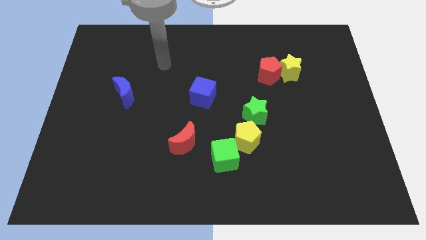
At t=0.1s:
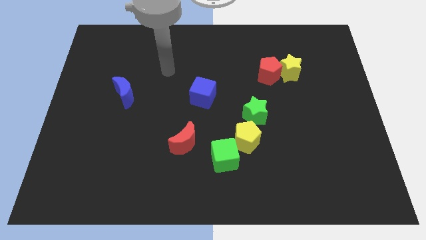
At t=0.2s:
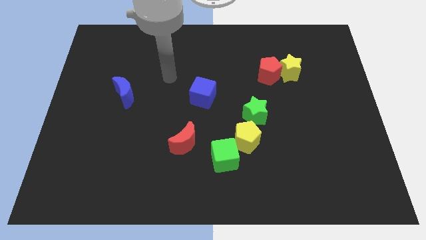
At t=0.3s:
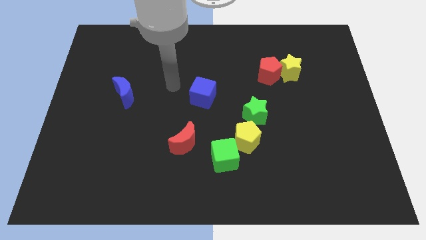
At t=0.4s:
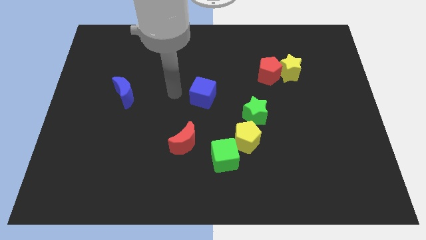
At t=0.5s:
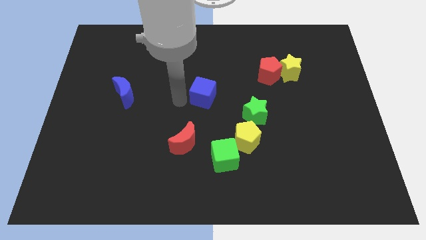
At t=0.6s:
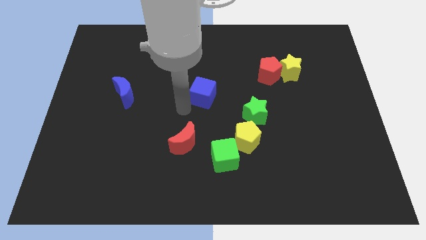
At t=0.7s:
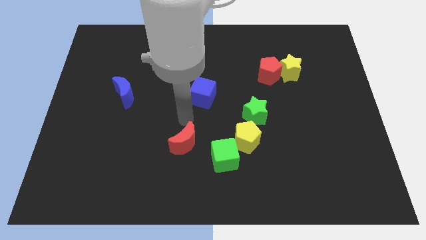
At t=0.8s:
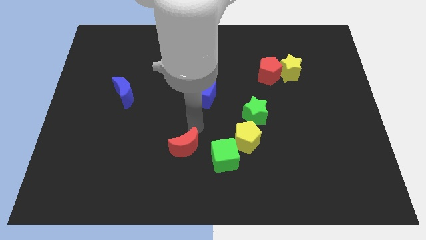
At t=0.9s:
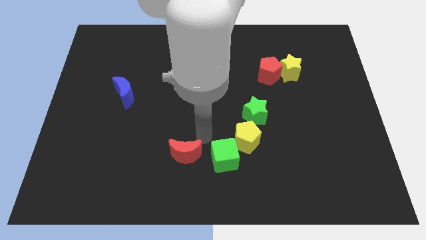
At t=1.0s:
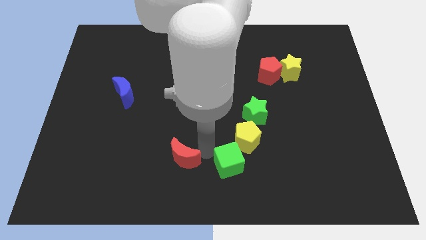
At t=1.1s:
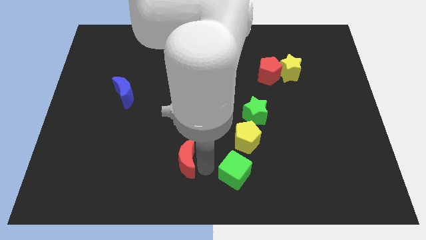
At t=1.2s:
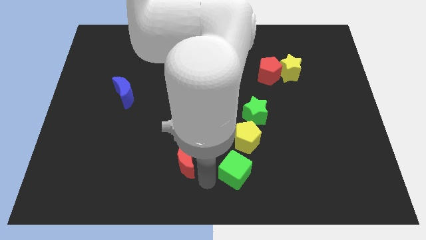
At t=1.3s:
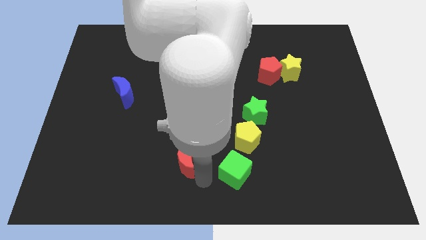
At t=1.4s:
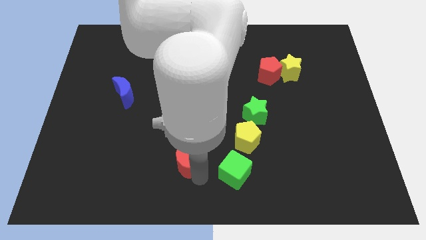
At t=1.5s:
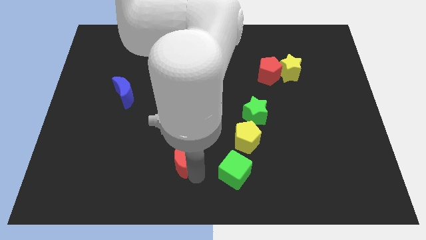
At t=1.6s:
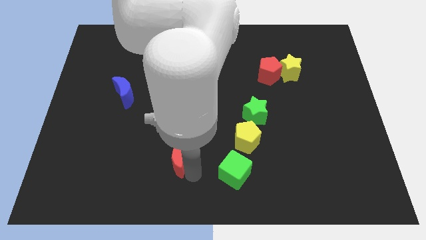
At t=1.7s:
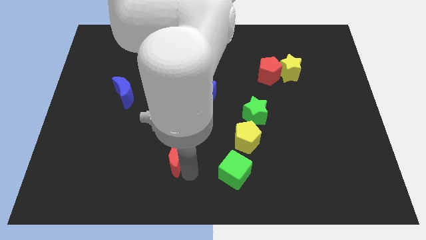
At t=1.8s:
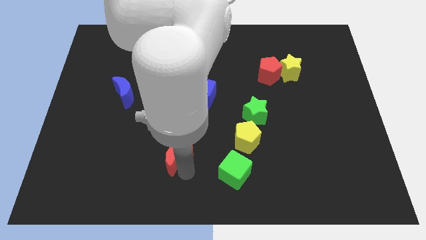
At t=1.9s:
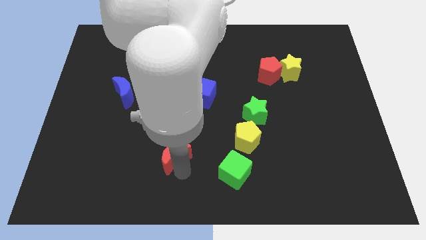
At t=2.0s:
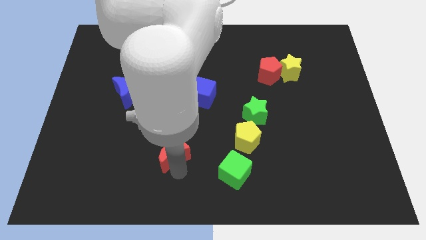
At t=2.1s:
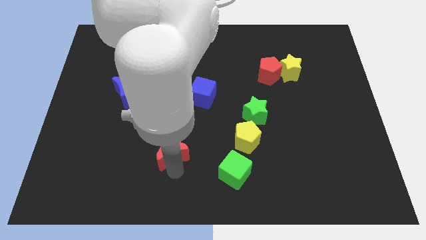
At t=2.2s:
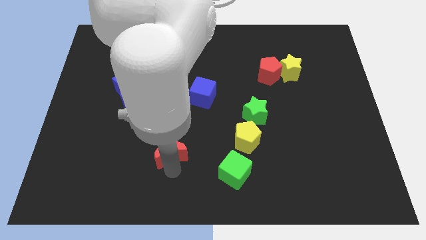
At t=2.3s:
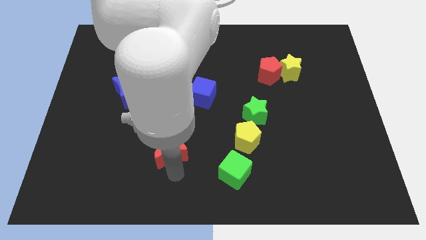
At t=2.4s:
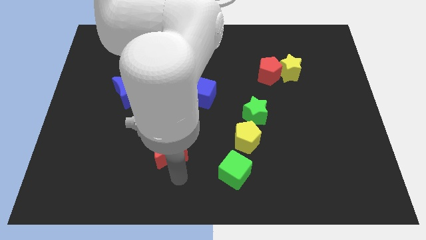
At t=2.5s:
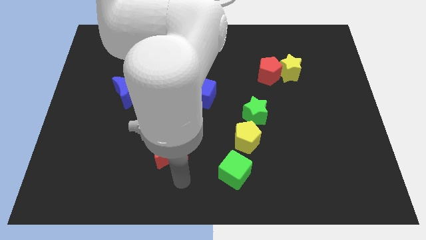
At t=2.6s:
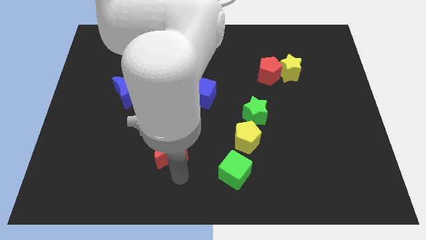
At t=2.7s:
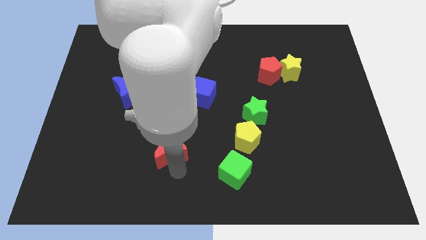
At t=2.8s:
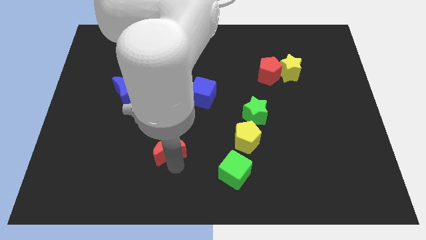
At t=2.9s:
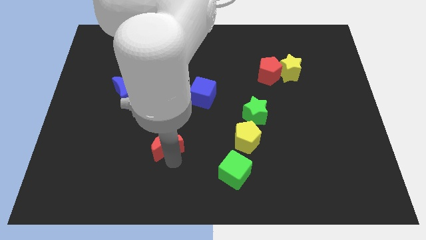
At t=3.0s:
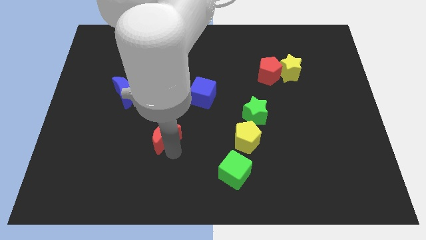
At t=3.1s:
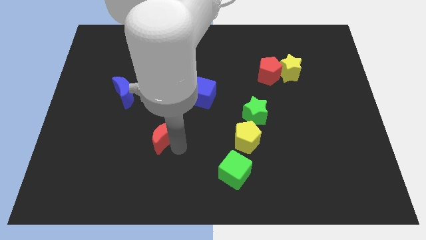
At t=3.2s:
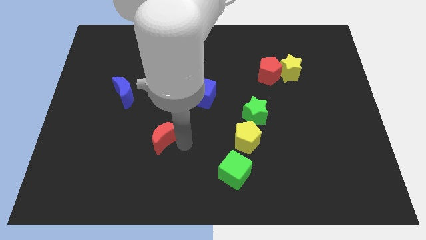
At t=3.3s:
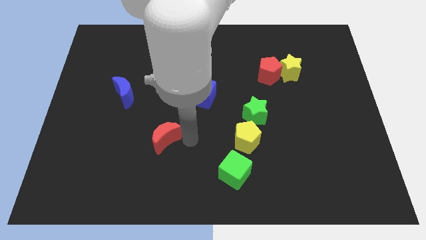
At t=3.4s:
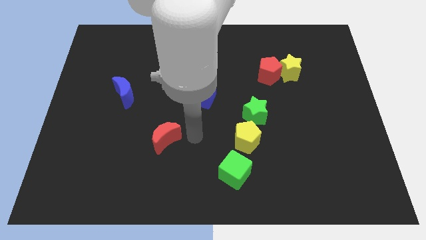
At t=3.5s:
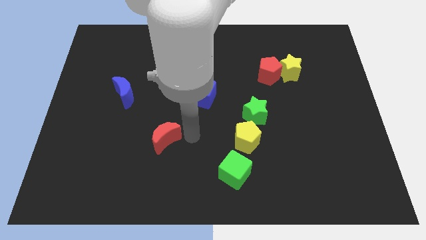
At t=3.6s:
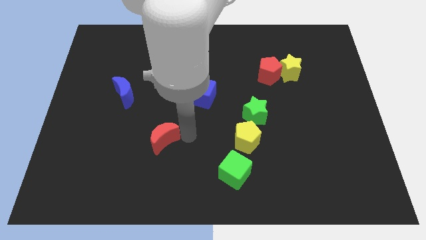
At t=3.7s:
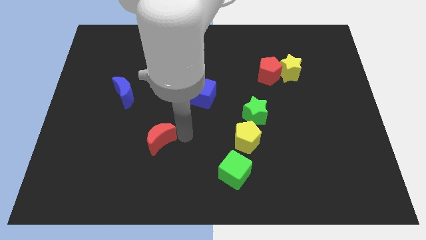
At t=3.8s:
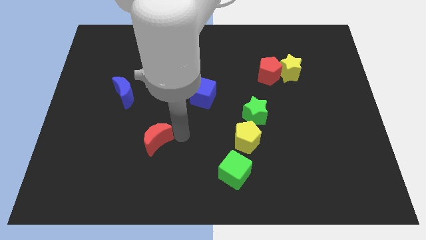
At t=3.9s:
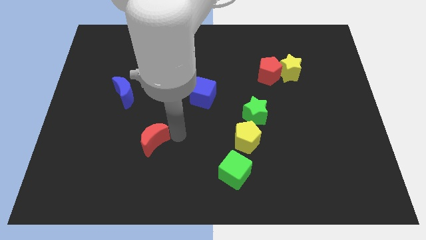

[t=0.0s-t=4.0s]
move the red moon to the left a bit

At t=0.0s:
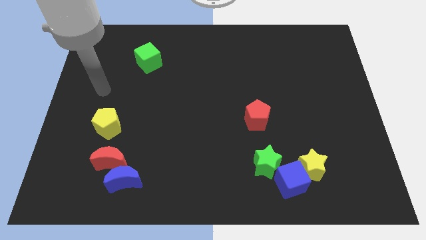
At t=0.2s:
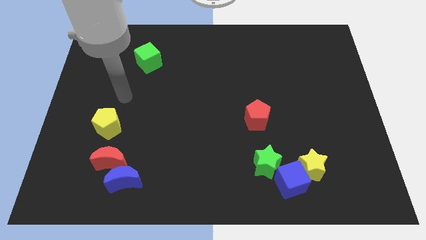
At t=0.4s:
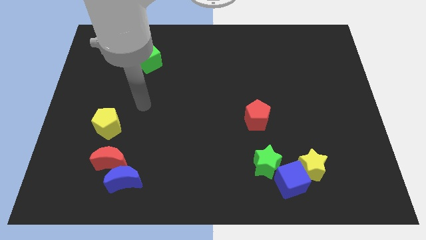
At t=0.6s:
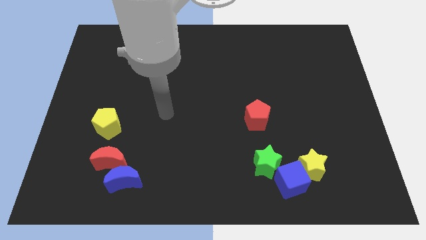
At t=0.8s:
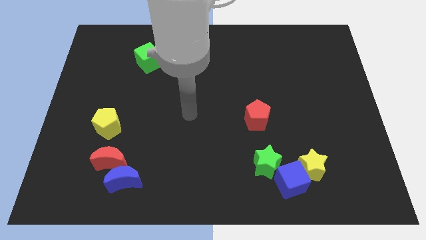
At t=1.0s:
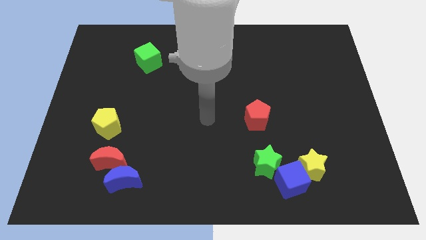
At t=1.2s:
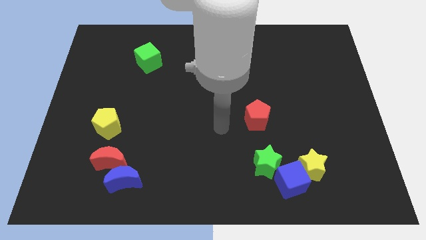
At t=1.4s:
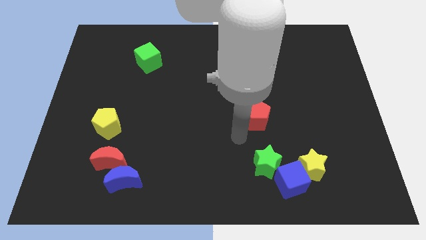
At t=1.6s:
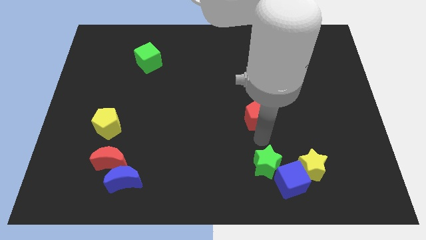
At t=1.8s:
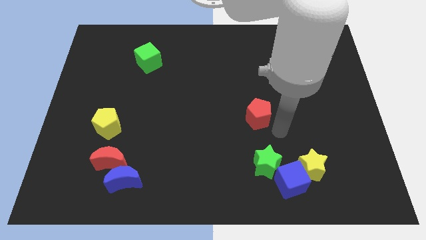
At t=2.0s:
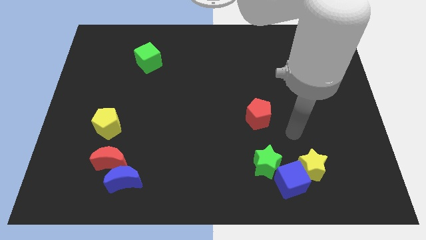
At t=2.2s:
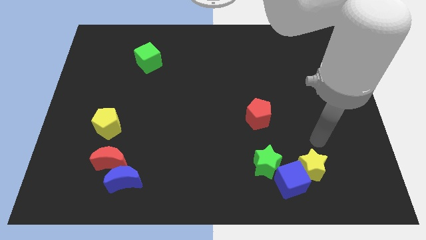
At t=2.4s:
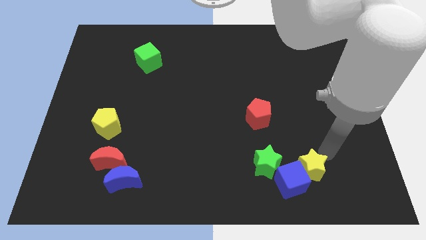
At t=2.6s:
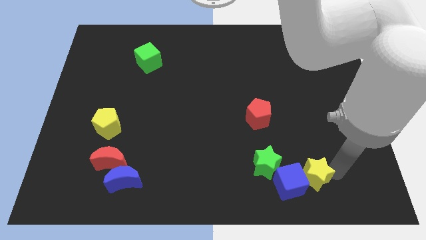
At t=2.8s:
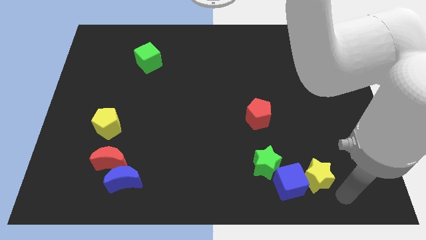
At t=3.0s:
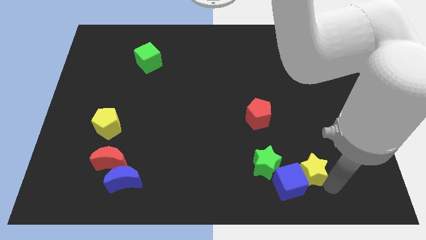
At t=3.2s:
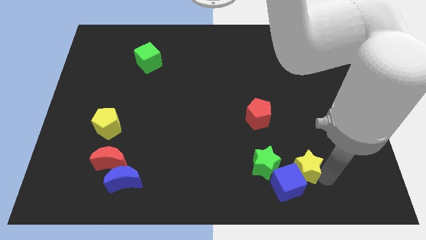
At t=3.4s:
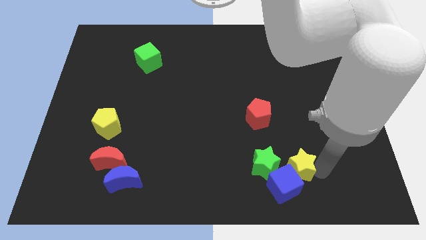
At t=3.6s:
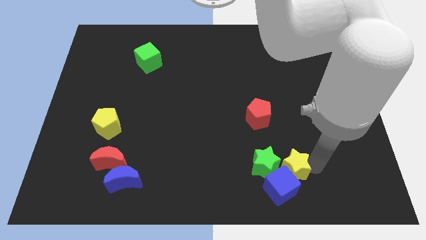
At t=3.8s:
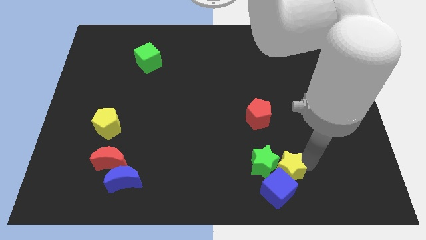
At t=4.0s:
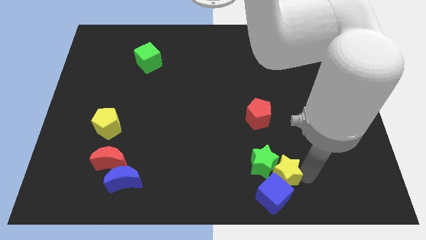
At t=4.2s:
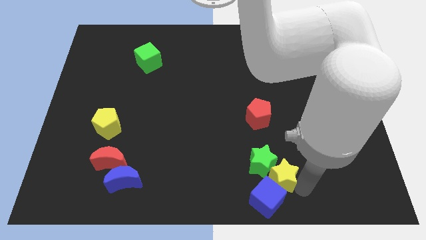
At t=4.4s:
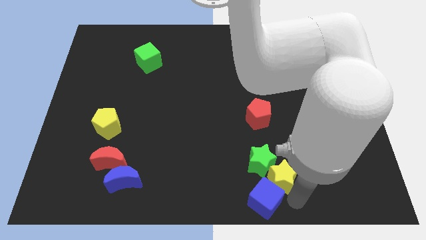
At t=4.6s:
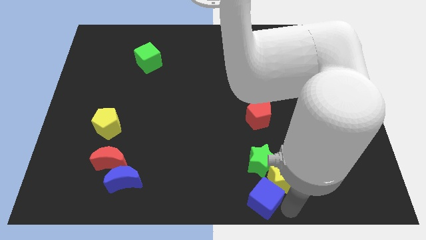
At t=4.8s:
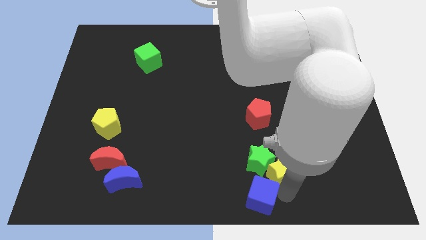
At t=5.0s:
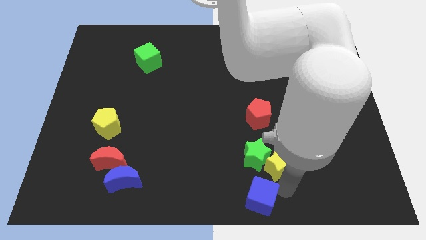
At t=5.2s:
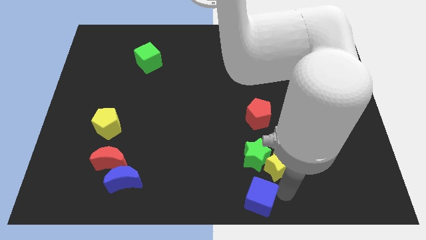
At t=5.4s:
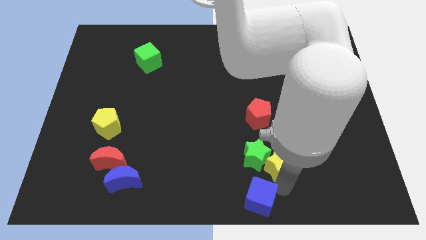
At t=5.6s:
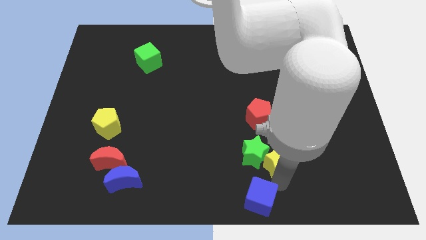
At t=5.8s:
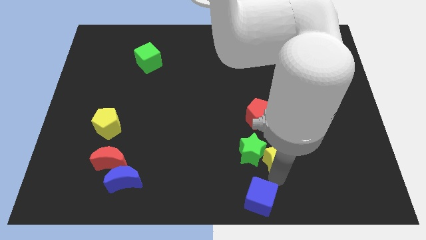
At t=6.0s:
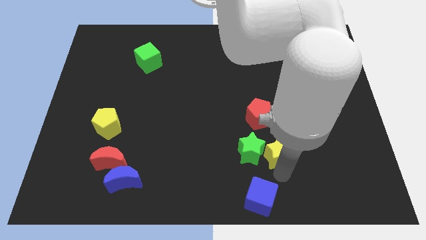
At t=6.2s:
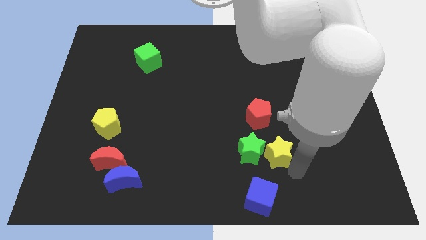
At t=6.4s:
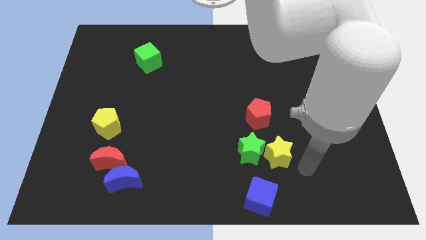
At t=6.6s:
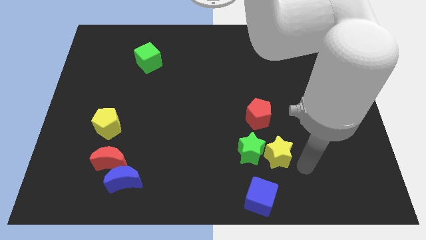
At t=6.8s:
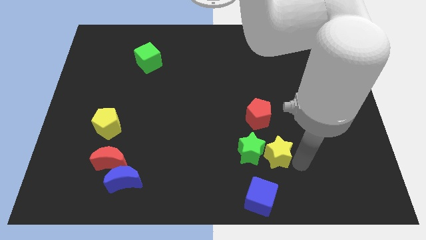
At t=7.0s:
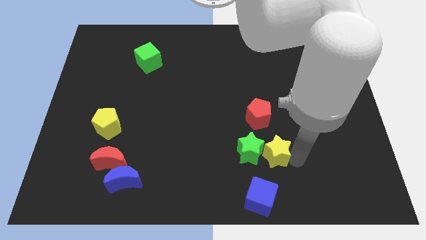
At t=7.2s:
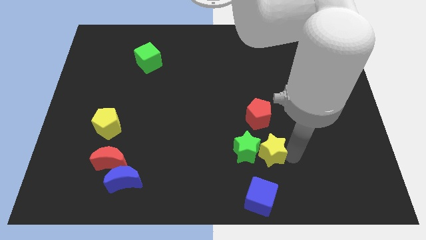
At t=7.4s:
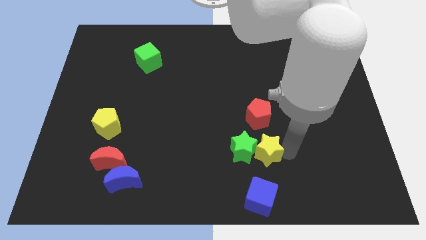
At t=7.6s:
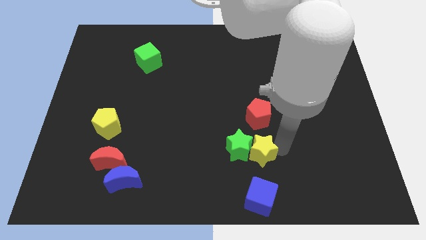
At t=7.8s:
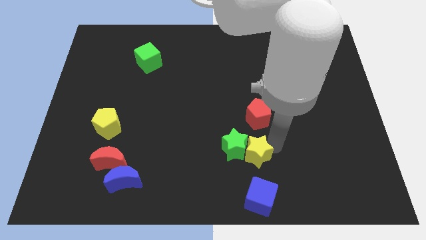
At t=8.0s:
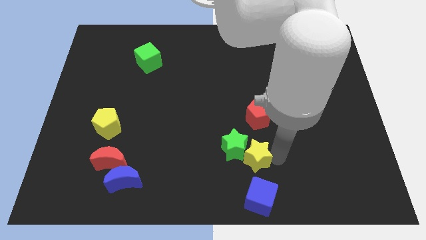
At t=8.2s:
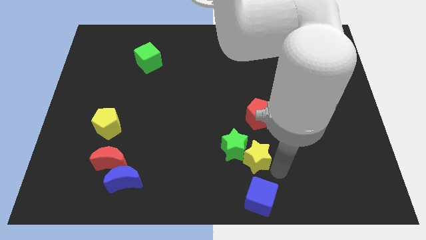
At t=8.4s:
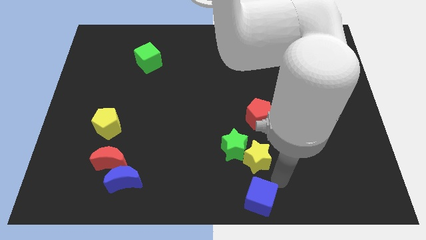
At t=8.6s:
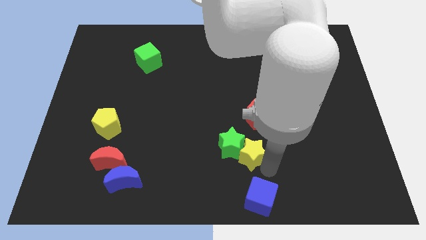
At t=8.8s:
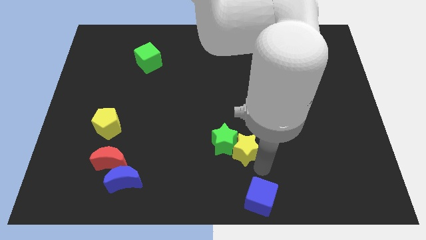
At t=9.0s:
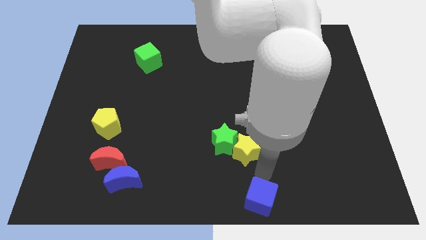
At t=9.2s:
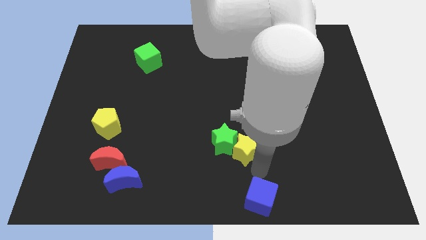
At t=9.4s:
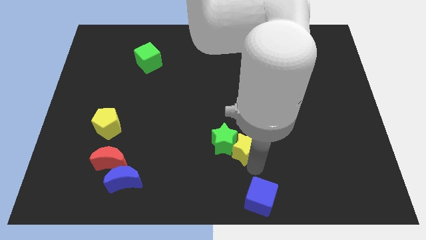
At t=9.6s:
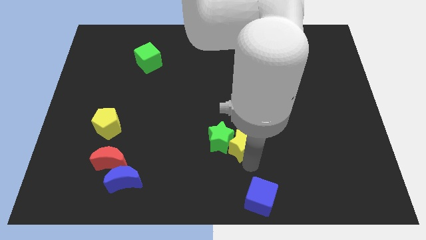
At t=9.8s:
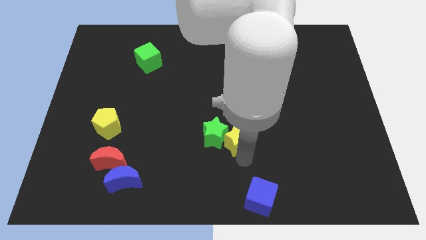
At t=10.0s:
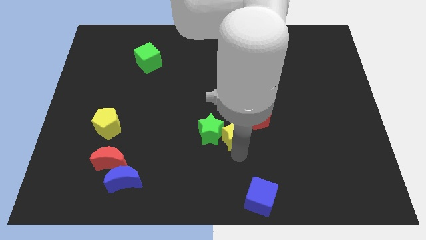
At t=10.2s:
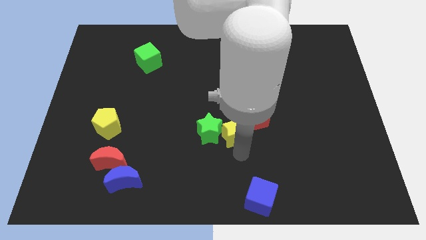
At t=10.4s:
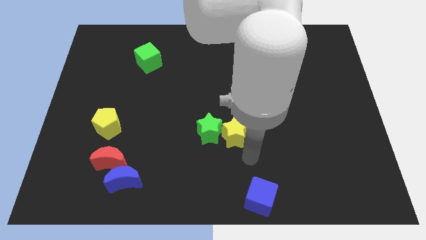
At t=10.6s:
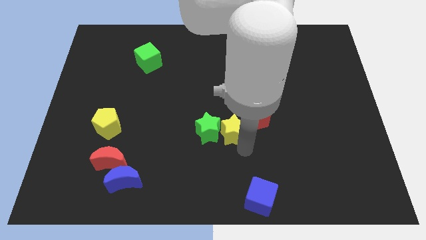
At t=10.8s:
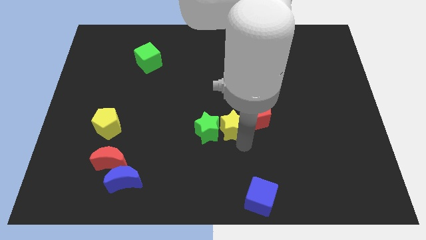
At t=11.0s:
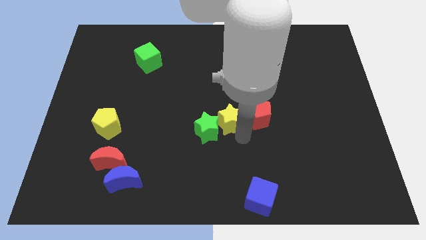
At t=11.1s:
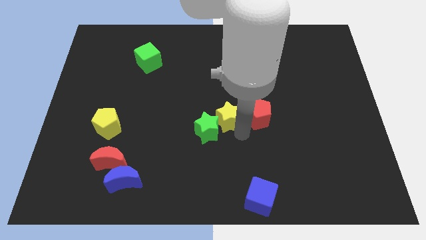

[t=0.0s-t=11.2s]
push the yellow star upwards and left diagonally
